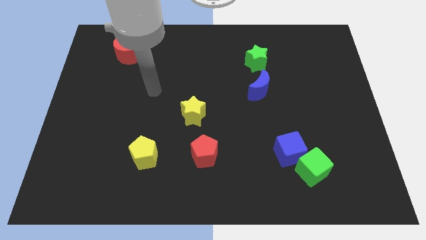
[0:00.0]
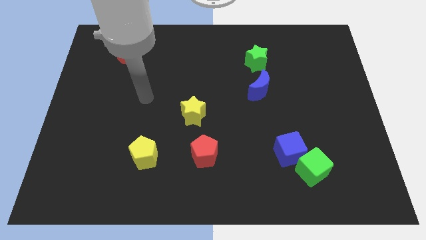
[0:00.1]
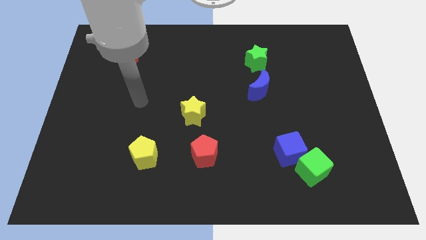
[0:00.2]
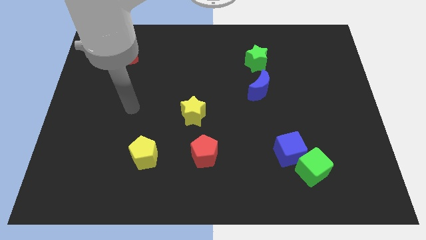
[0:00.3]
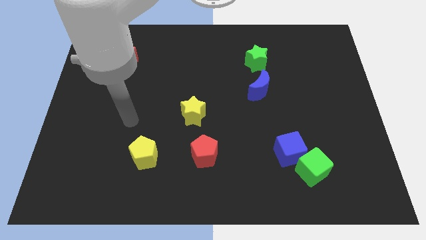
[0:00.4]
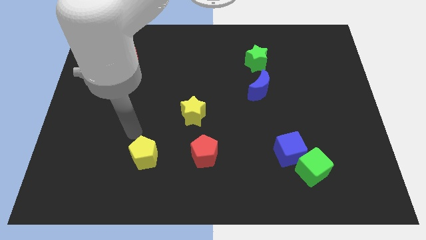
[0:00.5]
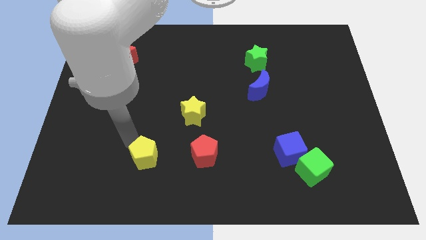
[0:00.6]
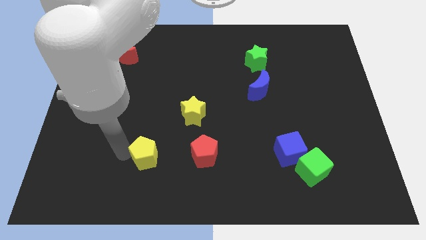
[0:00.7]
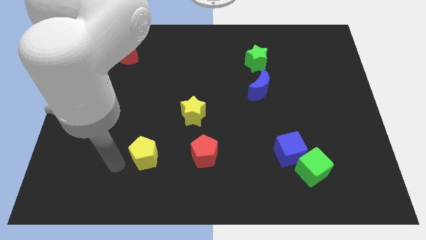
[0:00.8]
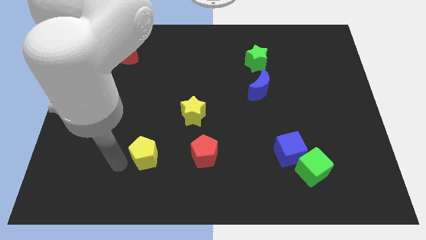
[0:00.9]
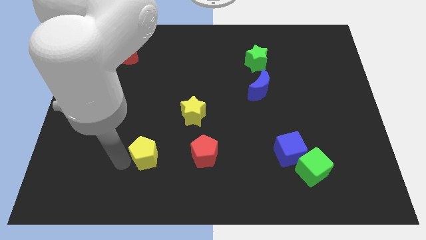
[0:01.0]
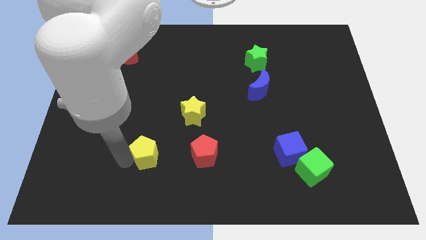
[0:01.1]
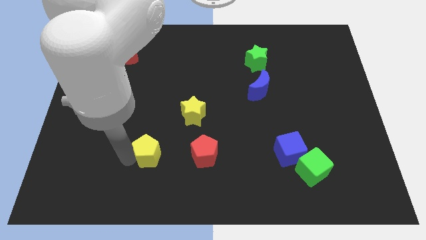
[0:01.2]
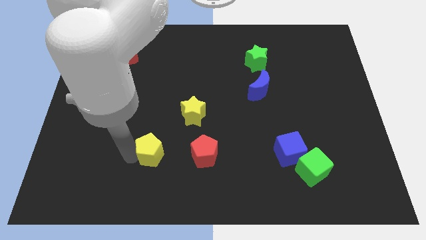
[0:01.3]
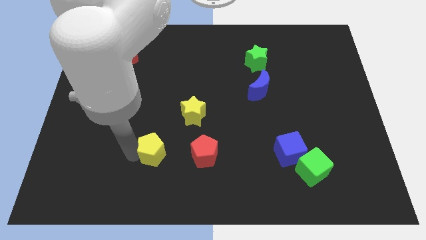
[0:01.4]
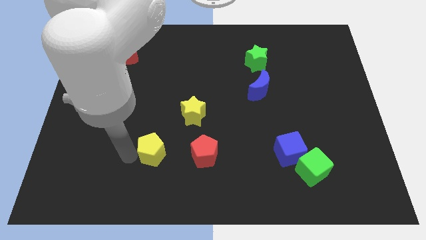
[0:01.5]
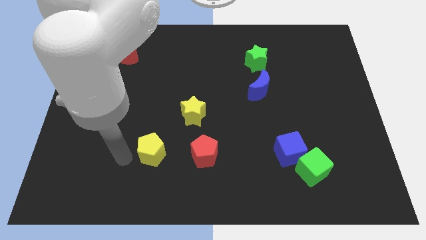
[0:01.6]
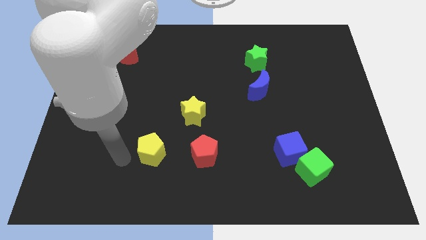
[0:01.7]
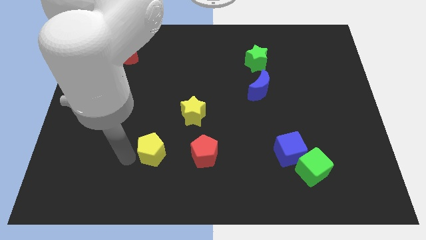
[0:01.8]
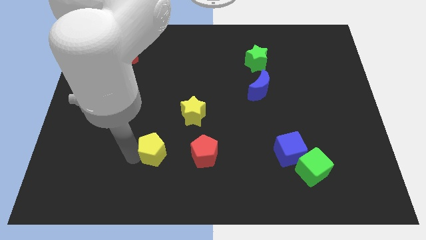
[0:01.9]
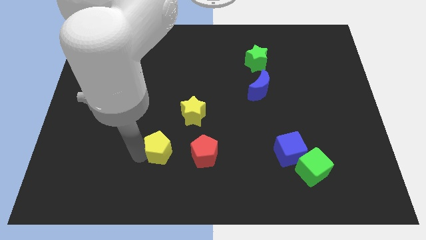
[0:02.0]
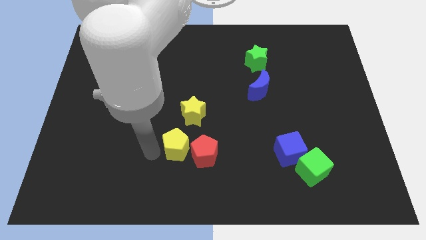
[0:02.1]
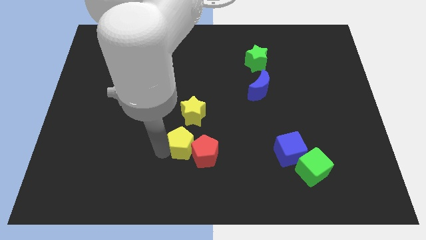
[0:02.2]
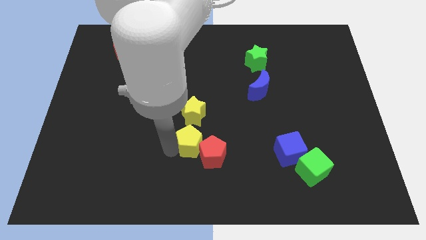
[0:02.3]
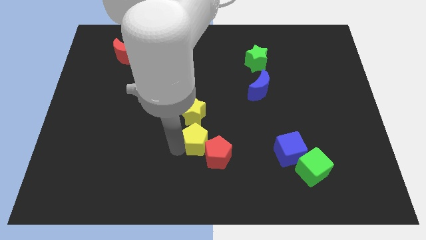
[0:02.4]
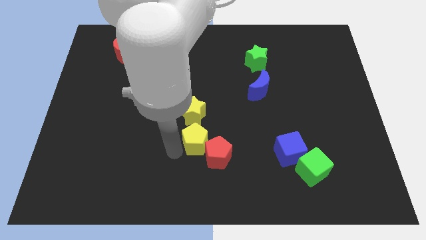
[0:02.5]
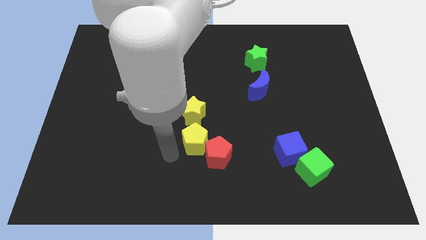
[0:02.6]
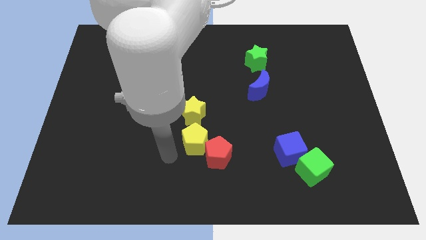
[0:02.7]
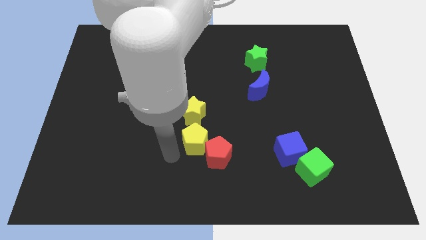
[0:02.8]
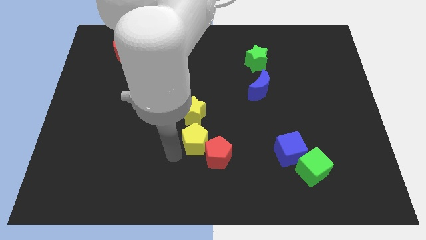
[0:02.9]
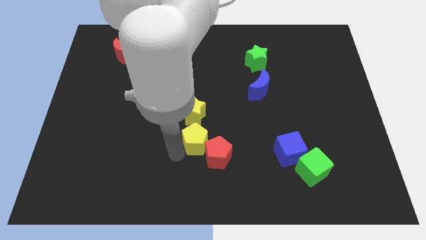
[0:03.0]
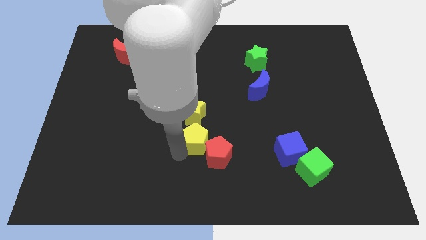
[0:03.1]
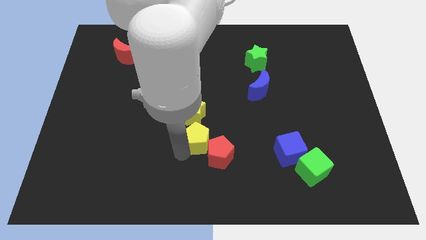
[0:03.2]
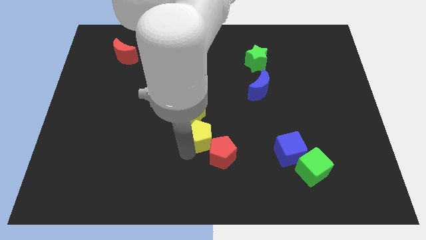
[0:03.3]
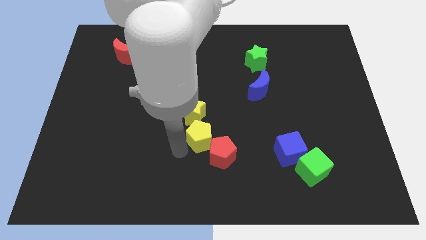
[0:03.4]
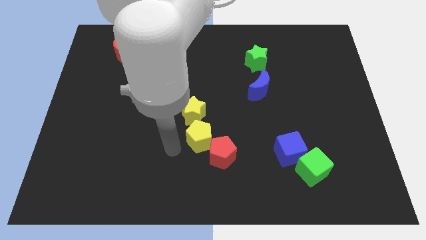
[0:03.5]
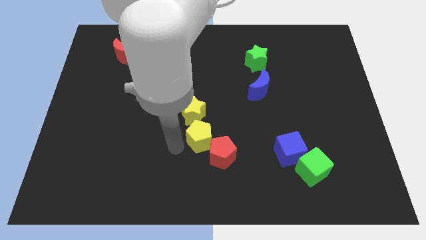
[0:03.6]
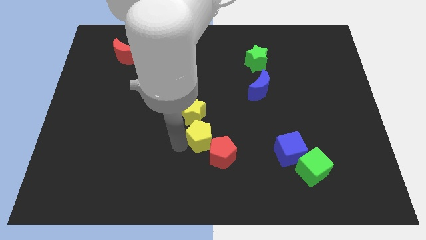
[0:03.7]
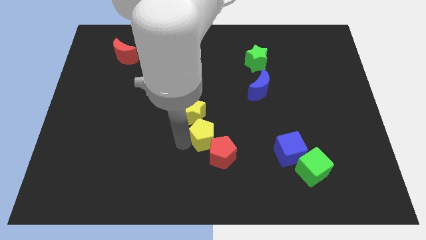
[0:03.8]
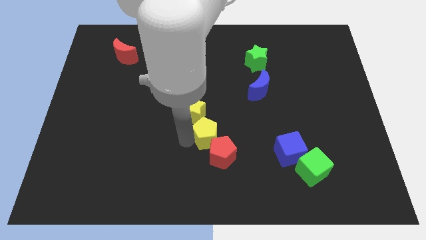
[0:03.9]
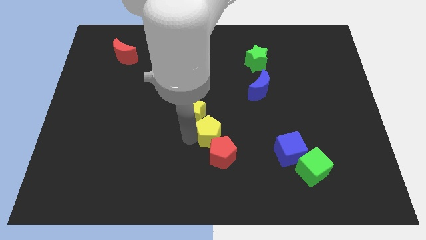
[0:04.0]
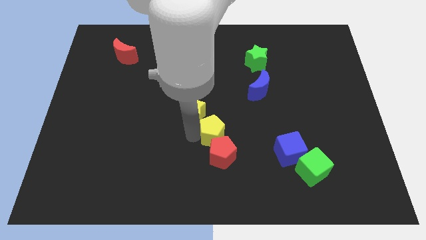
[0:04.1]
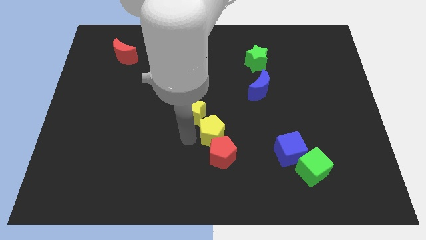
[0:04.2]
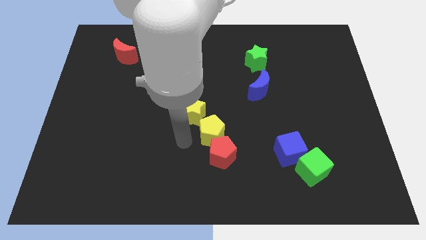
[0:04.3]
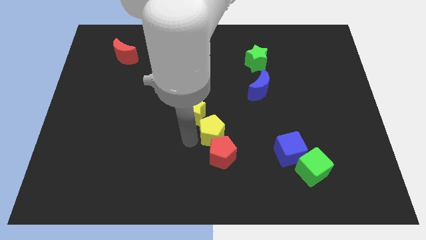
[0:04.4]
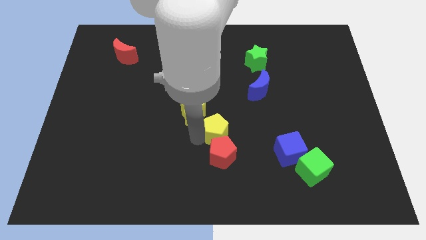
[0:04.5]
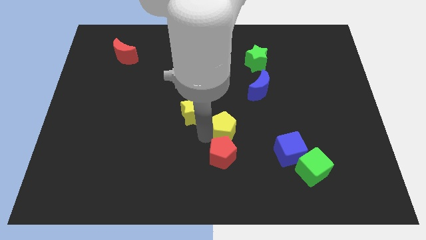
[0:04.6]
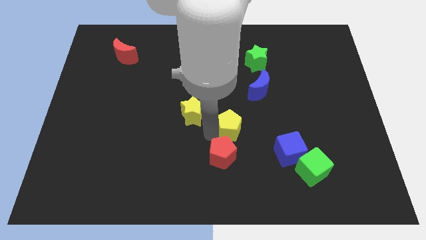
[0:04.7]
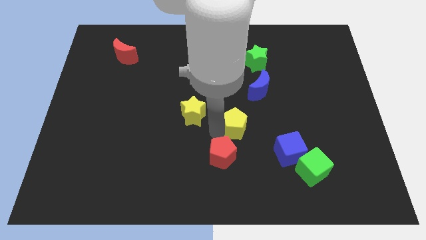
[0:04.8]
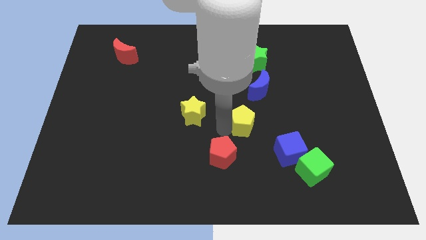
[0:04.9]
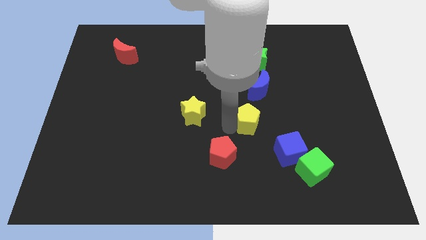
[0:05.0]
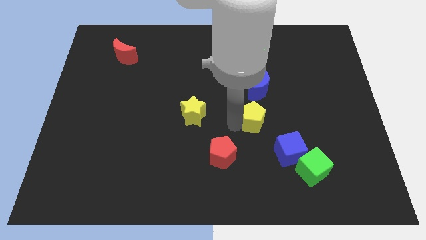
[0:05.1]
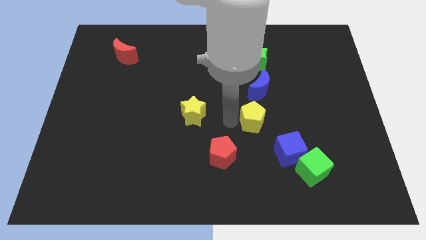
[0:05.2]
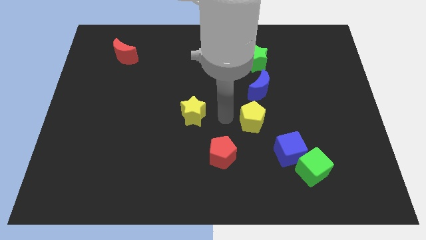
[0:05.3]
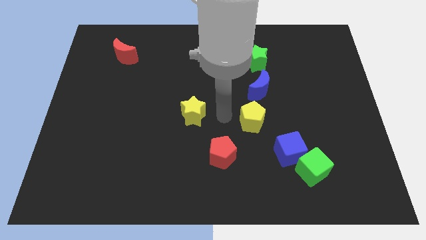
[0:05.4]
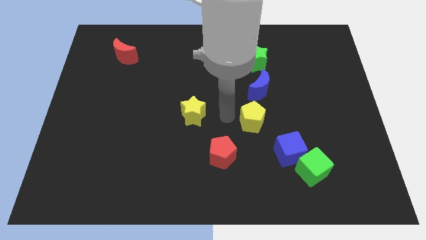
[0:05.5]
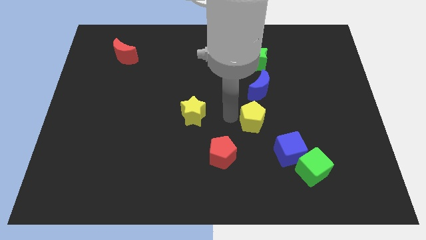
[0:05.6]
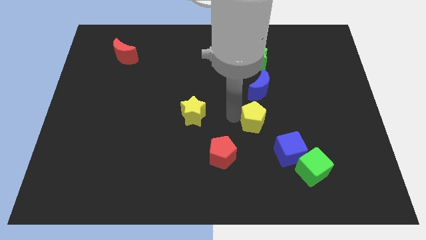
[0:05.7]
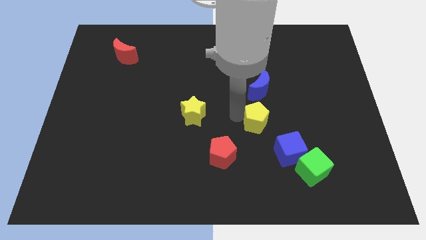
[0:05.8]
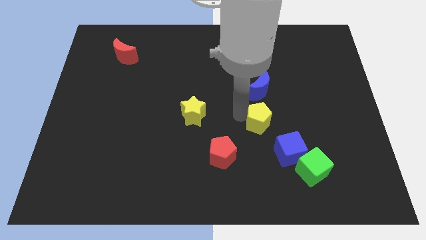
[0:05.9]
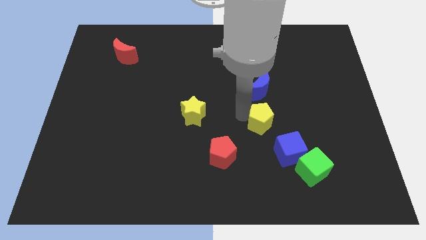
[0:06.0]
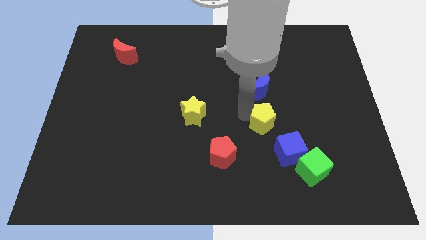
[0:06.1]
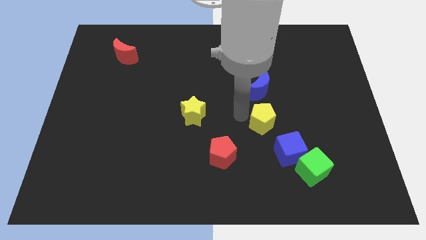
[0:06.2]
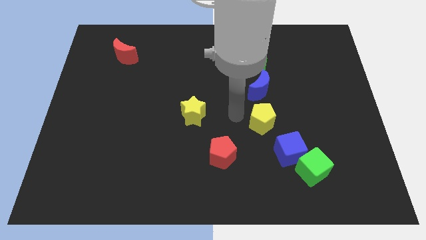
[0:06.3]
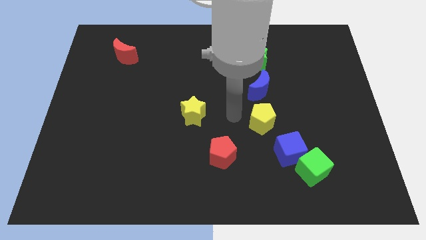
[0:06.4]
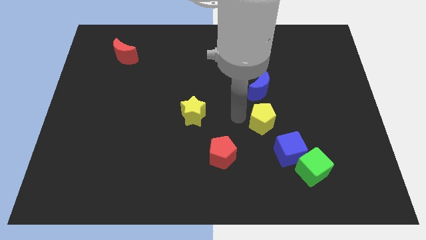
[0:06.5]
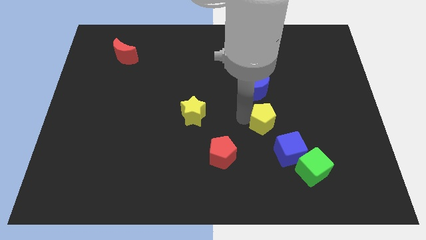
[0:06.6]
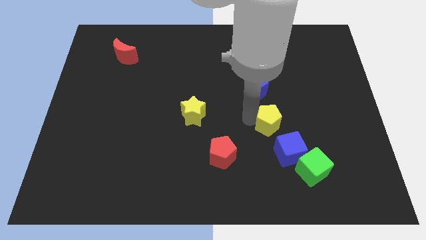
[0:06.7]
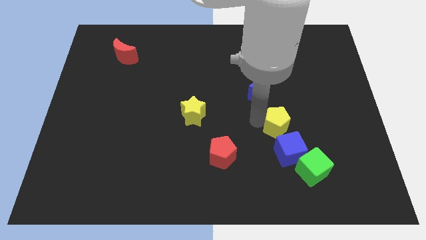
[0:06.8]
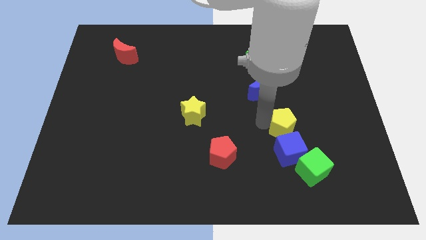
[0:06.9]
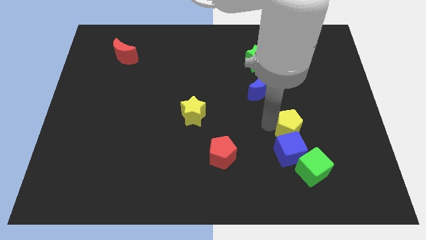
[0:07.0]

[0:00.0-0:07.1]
slide the yellow pentagon diagonally up and to the right of the blue cube
